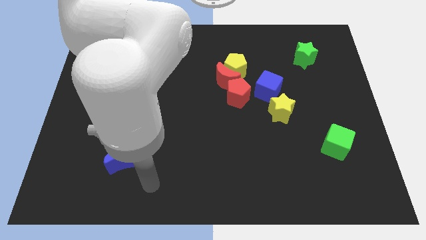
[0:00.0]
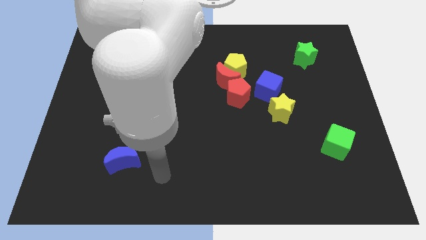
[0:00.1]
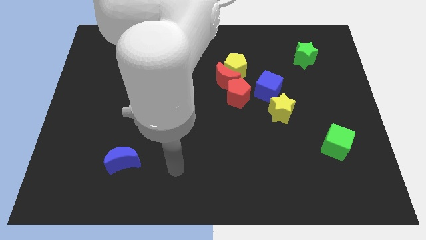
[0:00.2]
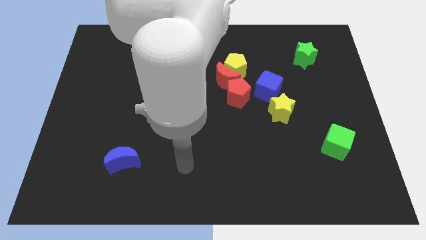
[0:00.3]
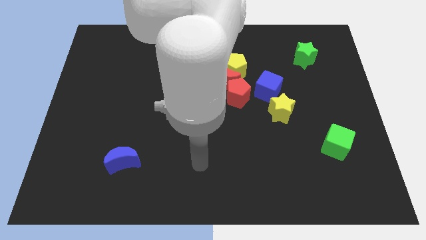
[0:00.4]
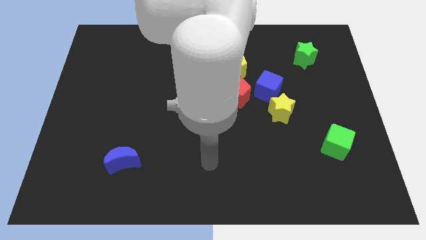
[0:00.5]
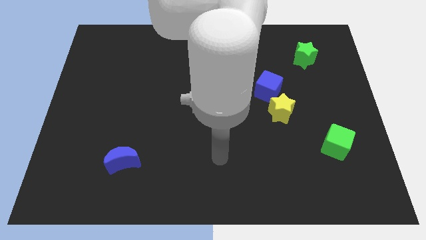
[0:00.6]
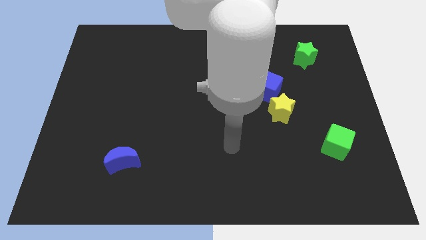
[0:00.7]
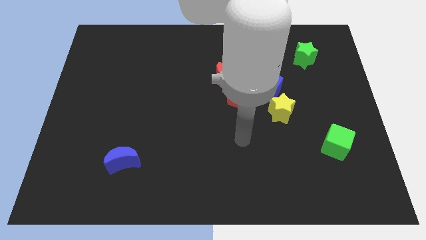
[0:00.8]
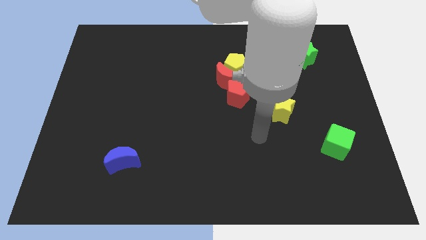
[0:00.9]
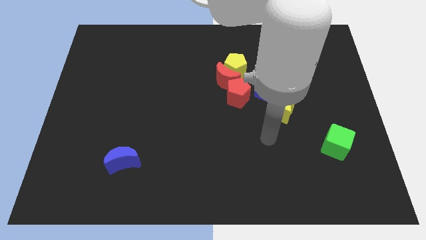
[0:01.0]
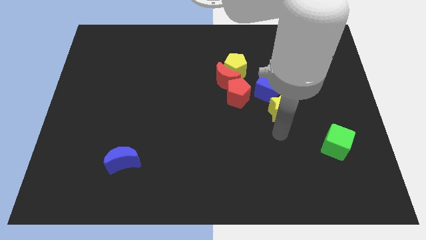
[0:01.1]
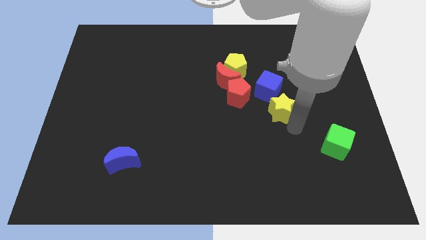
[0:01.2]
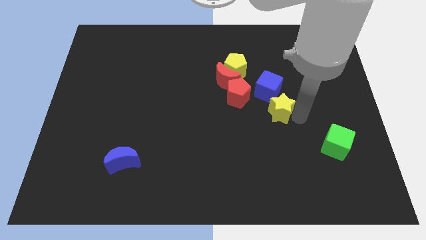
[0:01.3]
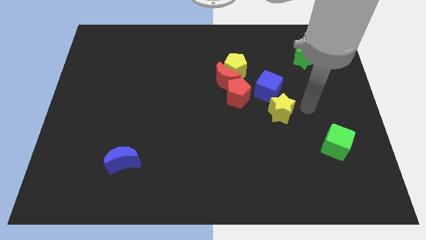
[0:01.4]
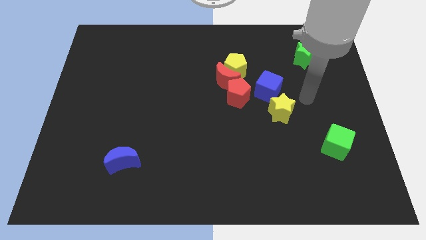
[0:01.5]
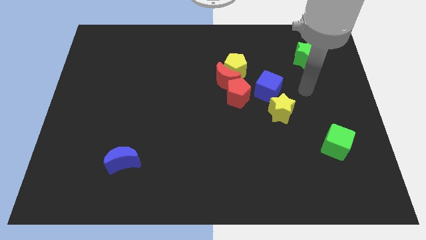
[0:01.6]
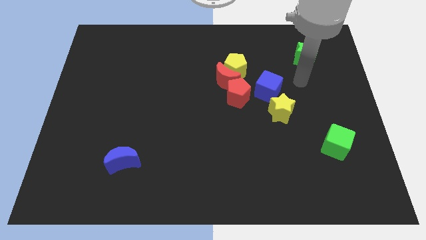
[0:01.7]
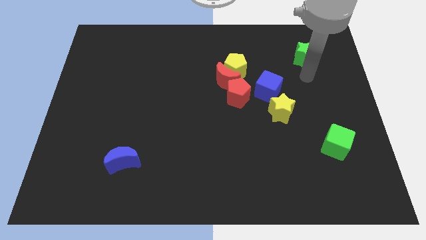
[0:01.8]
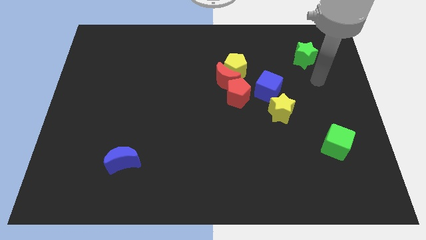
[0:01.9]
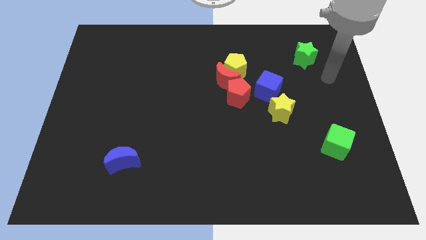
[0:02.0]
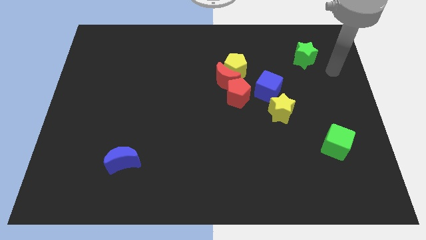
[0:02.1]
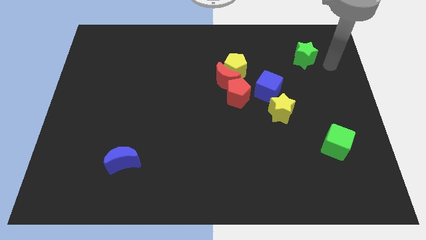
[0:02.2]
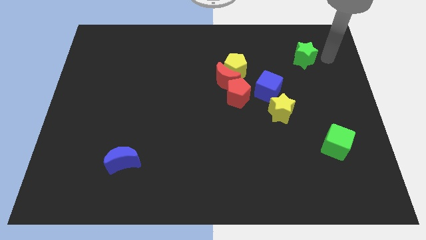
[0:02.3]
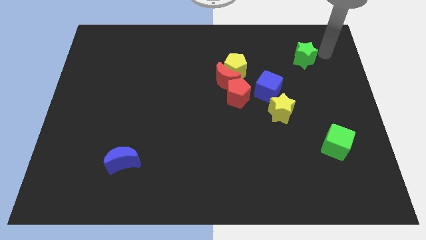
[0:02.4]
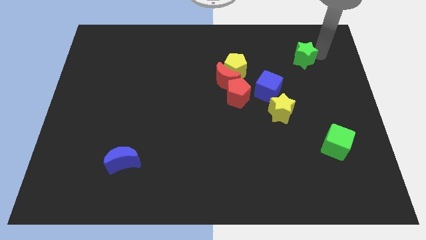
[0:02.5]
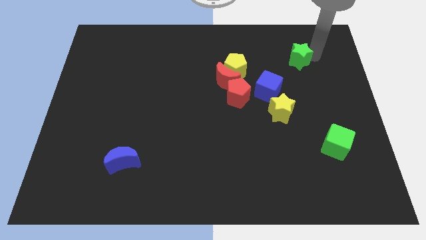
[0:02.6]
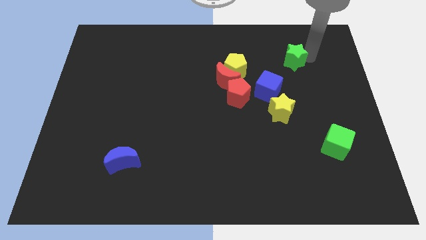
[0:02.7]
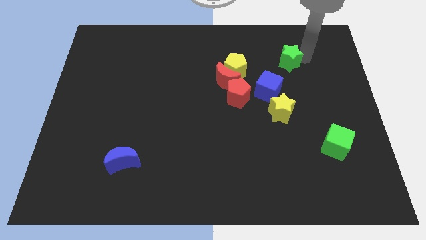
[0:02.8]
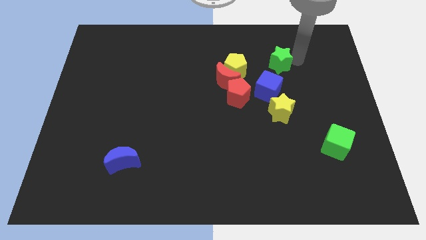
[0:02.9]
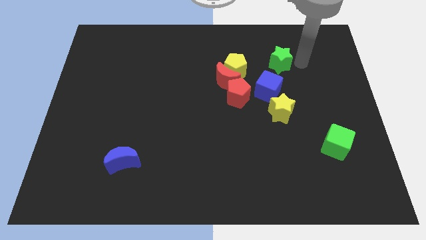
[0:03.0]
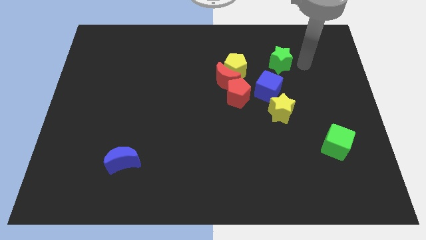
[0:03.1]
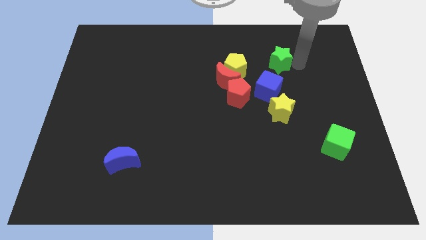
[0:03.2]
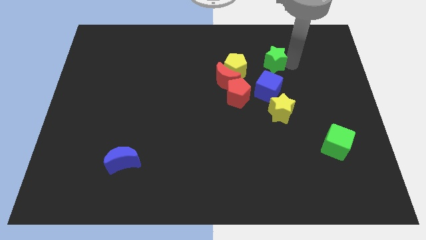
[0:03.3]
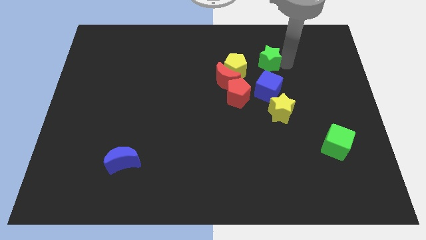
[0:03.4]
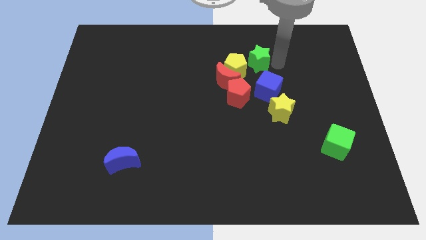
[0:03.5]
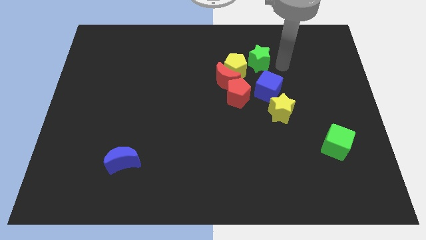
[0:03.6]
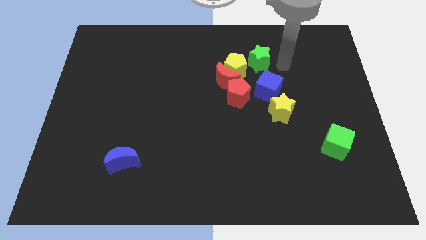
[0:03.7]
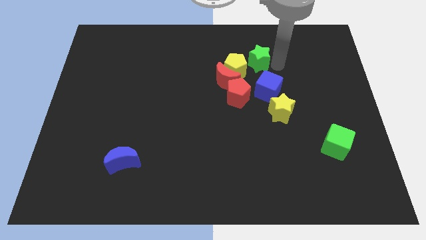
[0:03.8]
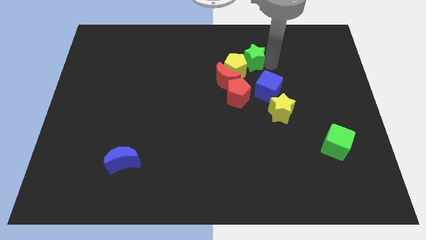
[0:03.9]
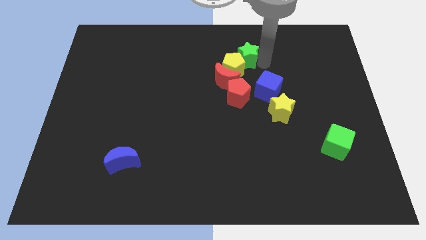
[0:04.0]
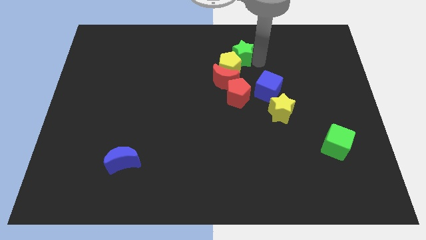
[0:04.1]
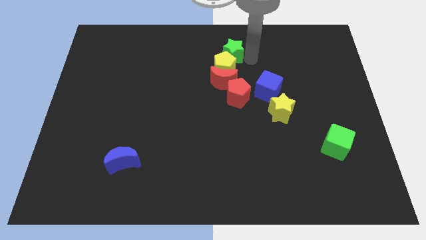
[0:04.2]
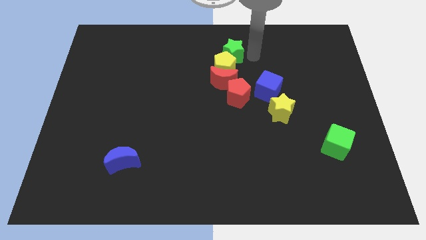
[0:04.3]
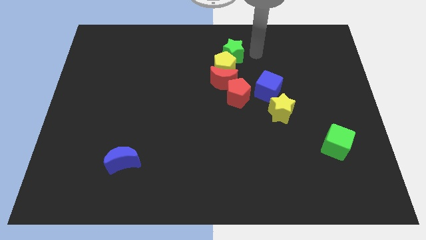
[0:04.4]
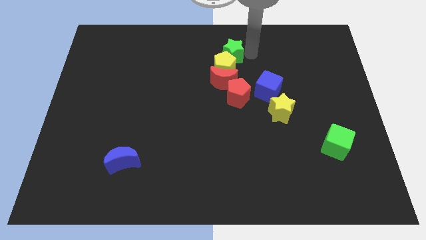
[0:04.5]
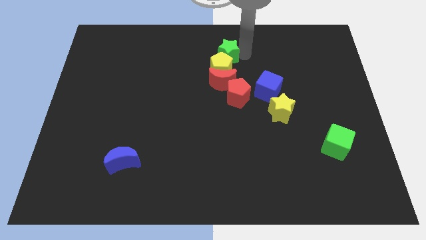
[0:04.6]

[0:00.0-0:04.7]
push the green star left

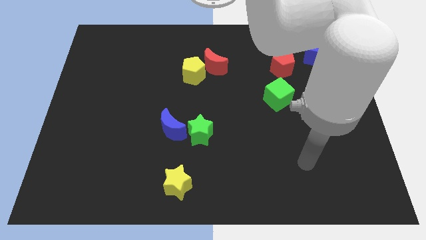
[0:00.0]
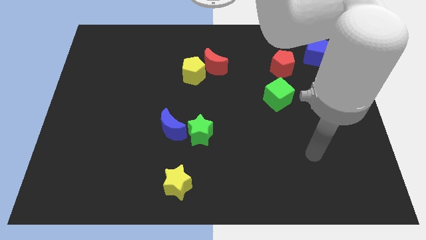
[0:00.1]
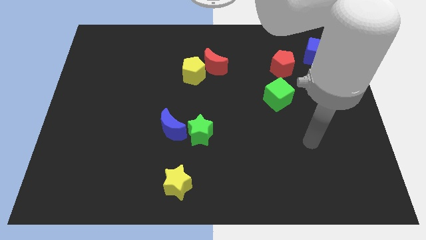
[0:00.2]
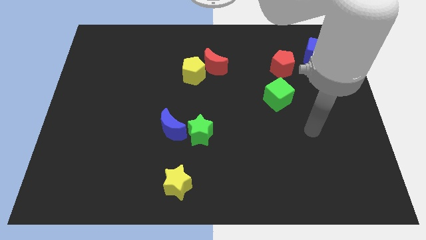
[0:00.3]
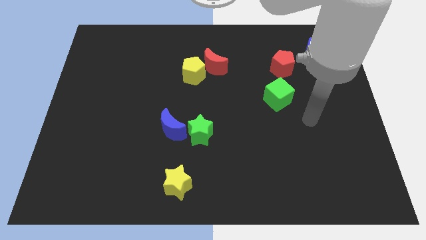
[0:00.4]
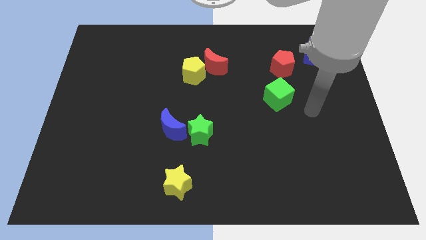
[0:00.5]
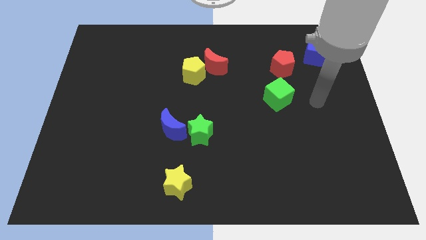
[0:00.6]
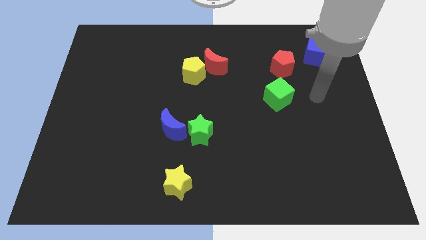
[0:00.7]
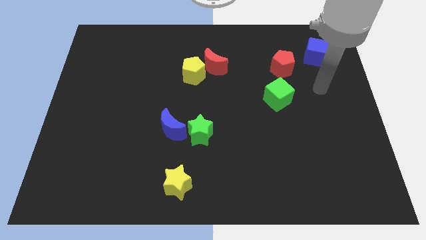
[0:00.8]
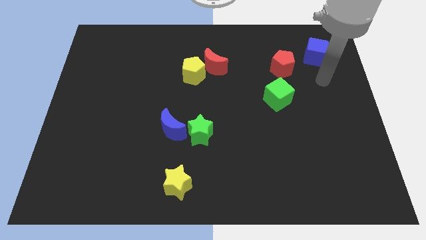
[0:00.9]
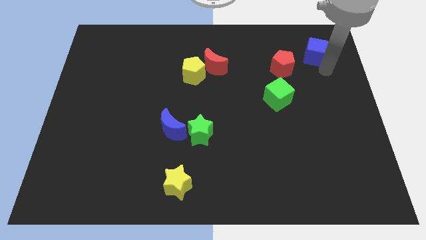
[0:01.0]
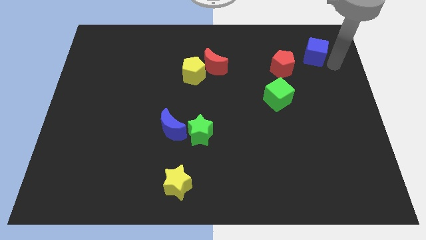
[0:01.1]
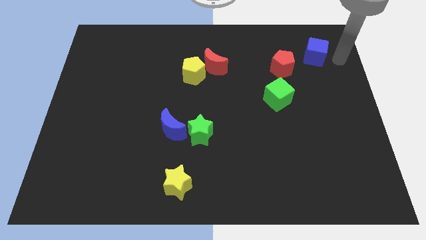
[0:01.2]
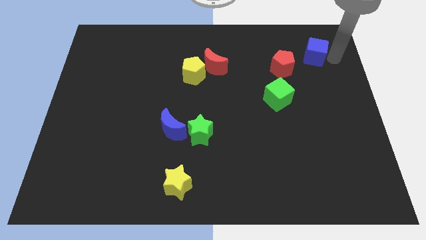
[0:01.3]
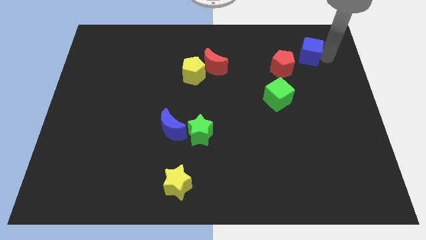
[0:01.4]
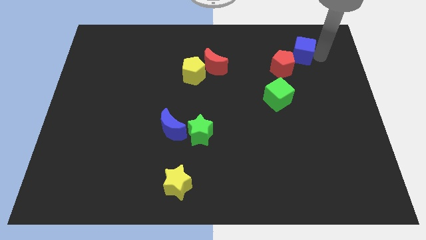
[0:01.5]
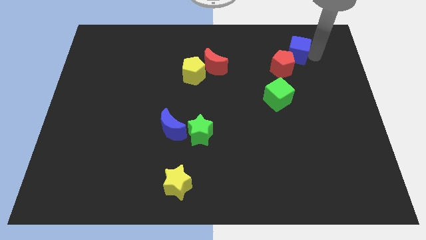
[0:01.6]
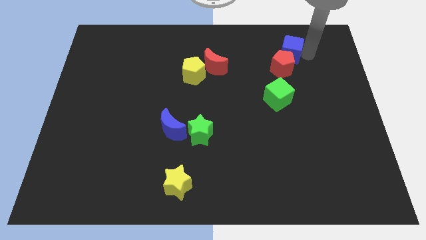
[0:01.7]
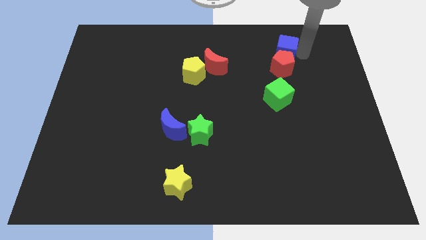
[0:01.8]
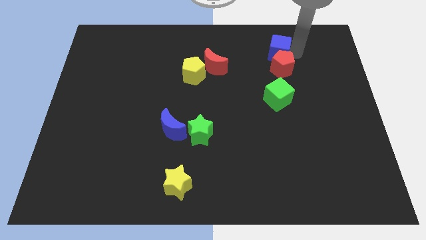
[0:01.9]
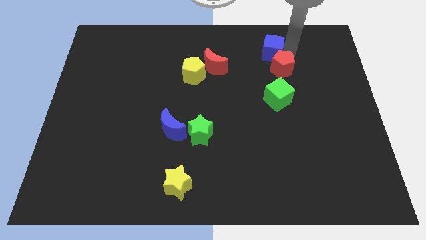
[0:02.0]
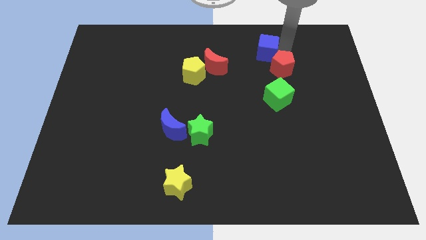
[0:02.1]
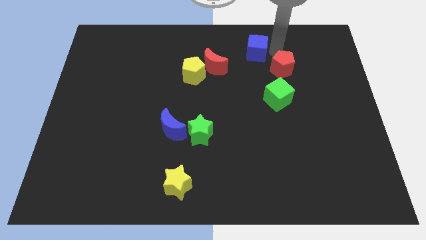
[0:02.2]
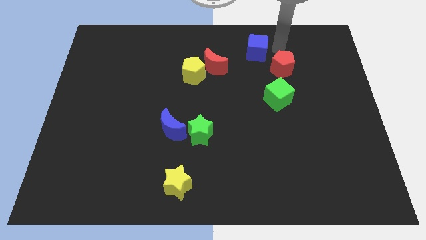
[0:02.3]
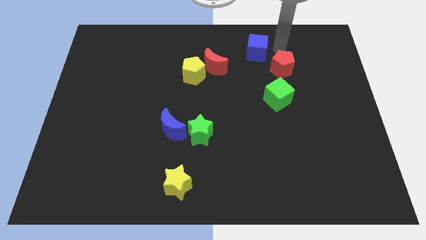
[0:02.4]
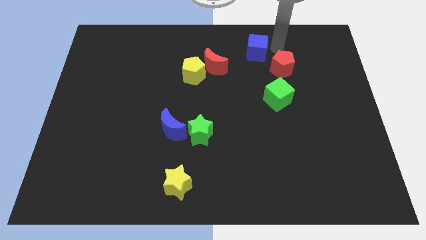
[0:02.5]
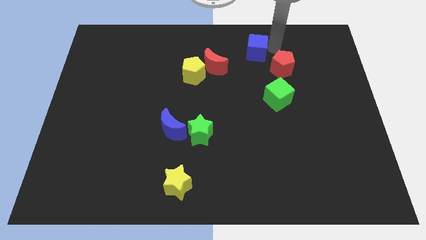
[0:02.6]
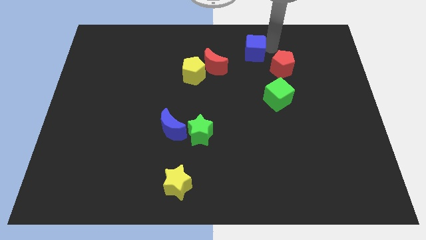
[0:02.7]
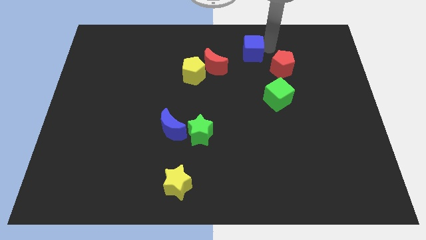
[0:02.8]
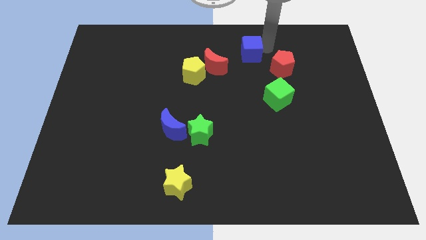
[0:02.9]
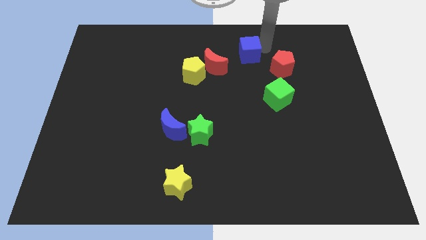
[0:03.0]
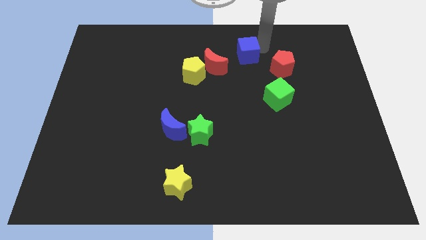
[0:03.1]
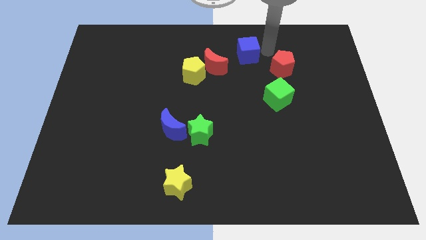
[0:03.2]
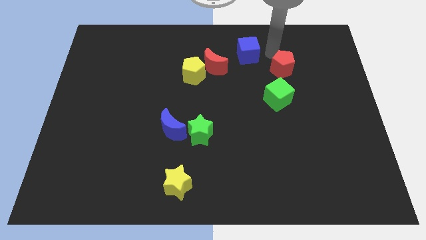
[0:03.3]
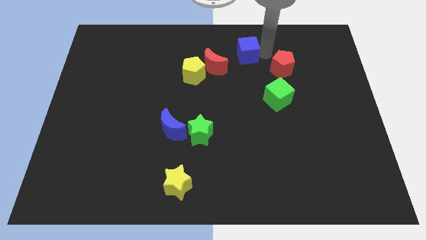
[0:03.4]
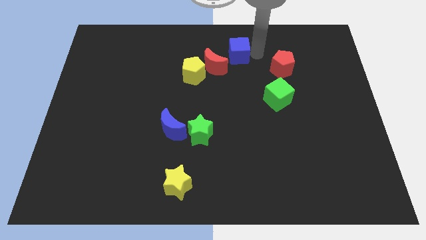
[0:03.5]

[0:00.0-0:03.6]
push the blue cube to the left

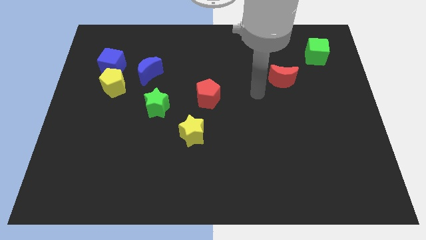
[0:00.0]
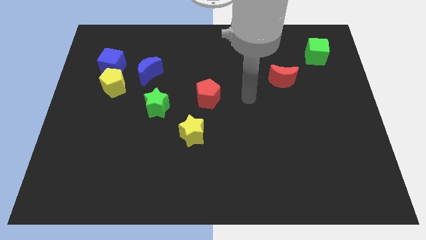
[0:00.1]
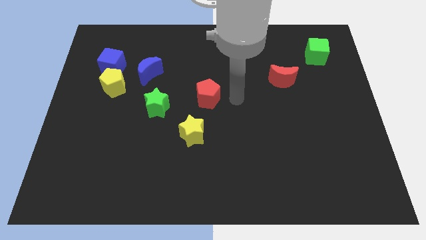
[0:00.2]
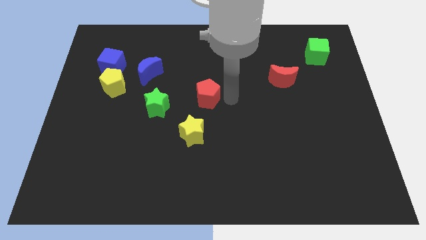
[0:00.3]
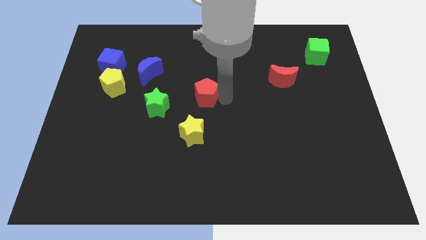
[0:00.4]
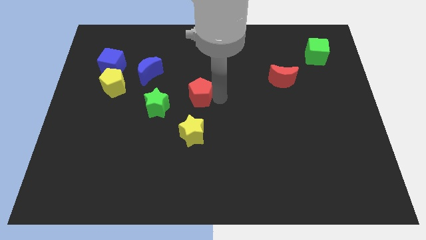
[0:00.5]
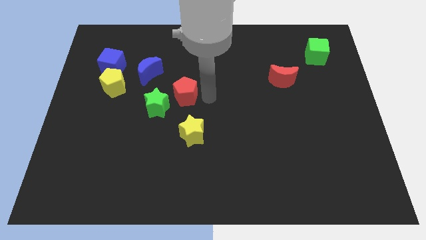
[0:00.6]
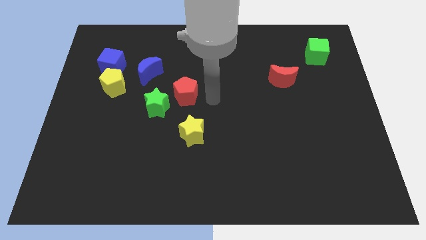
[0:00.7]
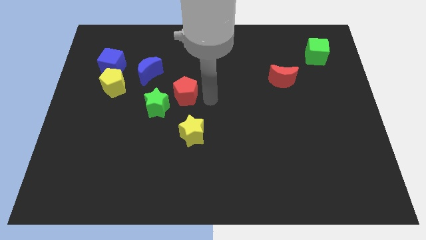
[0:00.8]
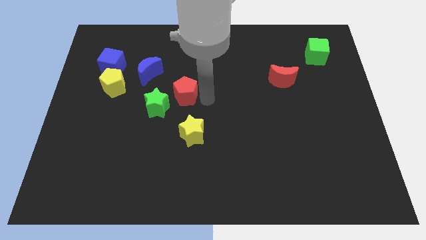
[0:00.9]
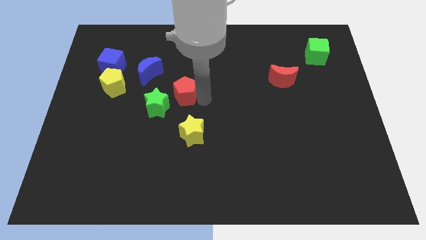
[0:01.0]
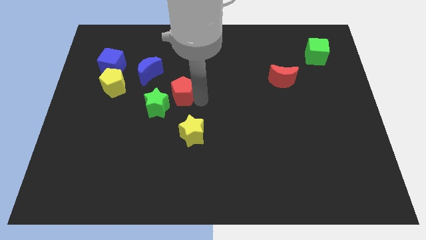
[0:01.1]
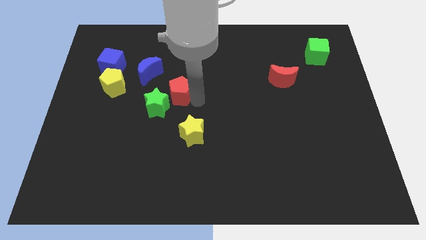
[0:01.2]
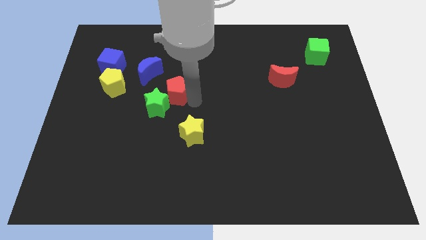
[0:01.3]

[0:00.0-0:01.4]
push the red pentagon a little bit to the left
